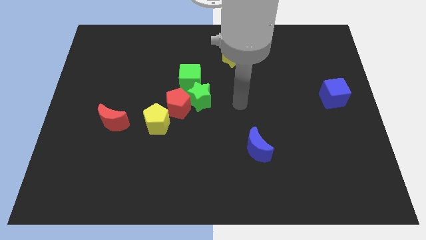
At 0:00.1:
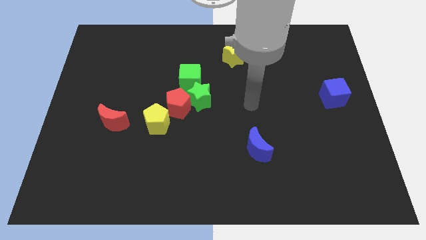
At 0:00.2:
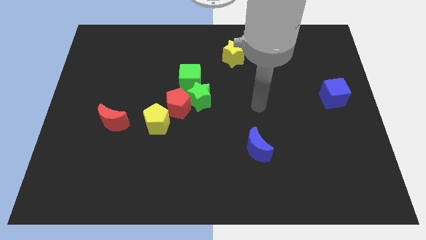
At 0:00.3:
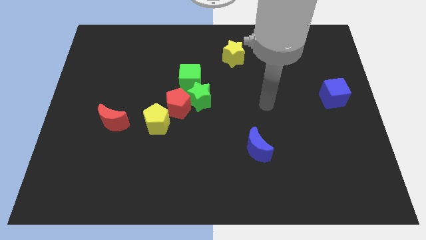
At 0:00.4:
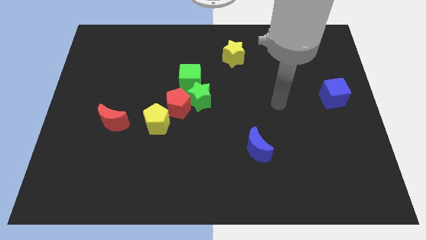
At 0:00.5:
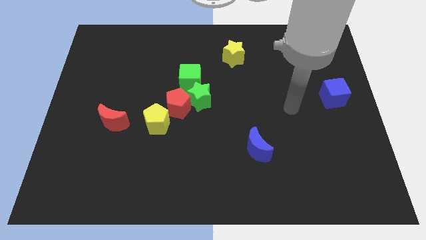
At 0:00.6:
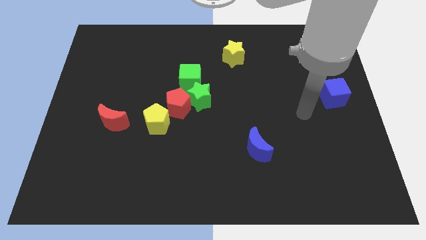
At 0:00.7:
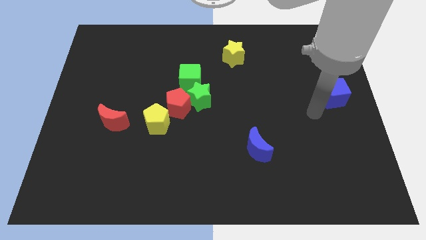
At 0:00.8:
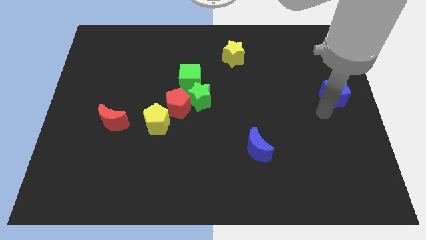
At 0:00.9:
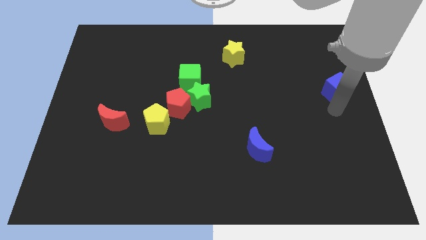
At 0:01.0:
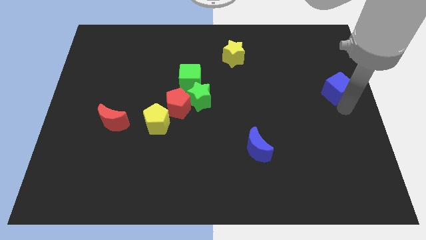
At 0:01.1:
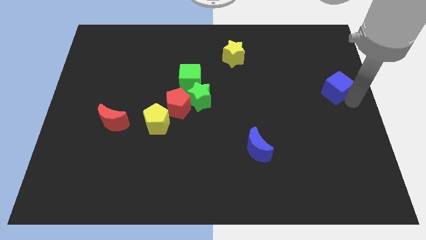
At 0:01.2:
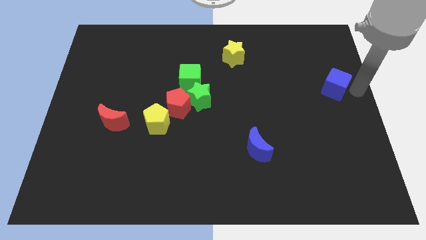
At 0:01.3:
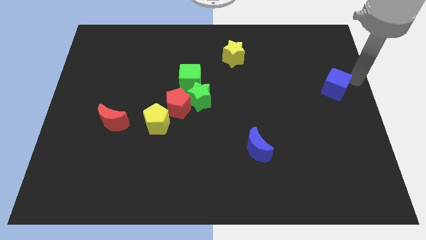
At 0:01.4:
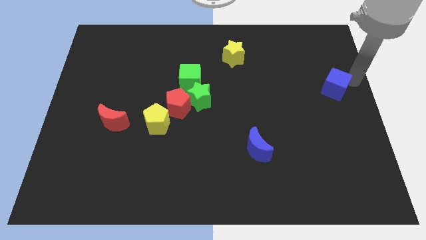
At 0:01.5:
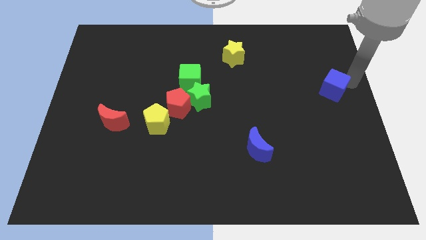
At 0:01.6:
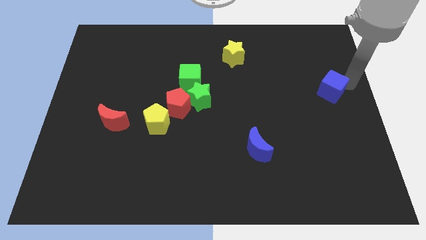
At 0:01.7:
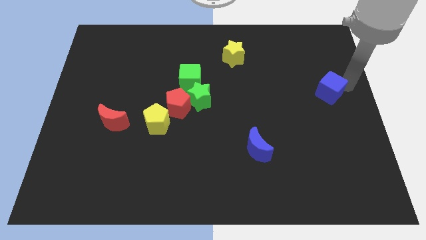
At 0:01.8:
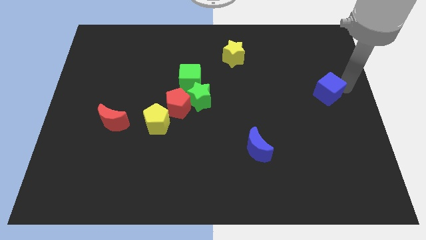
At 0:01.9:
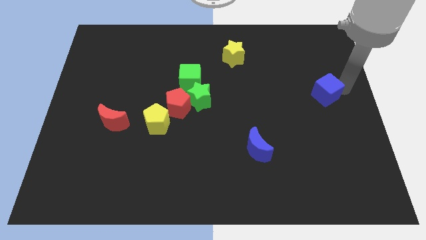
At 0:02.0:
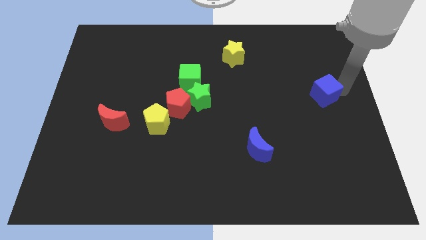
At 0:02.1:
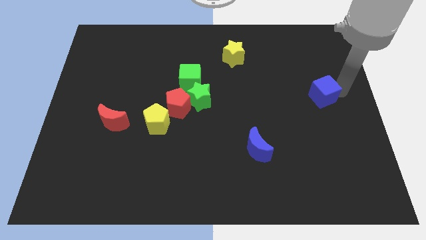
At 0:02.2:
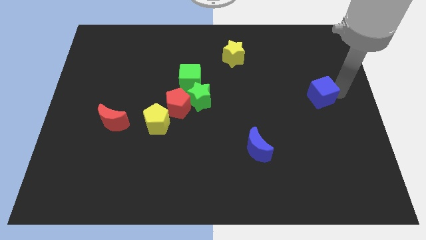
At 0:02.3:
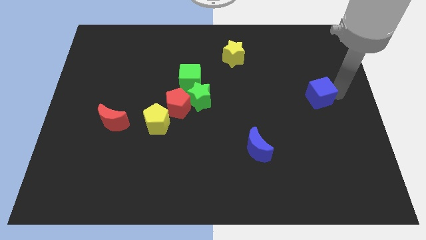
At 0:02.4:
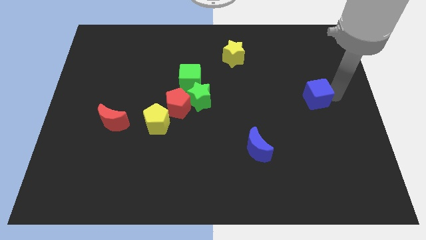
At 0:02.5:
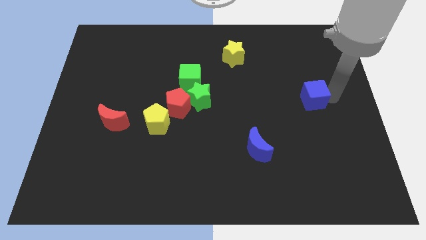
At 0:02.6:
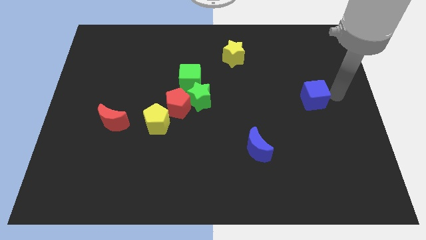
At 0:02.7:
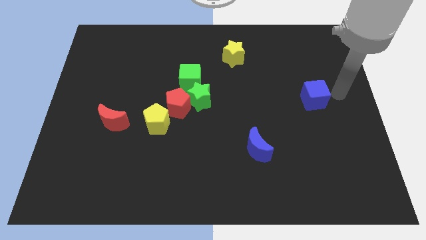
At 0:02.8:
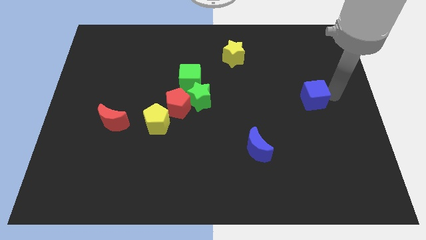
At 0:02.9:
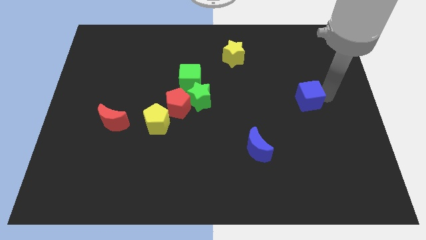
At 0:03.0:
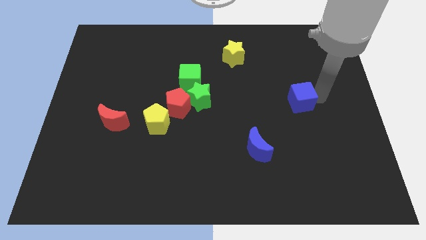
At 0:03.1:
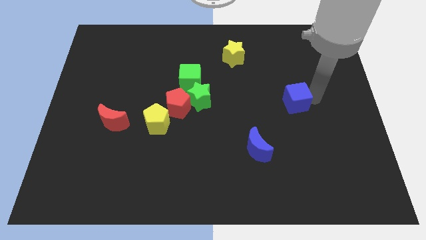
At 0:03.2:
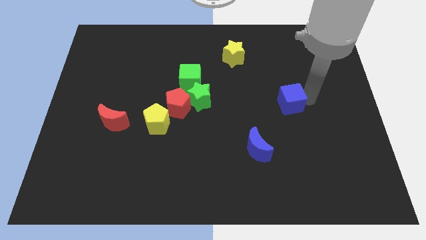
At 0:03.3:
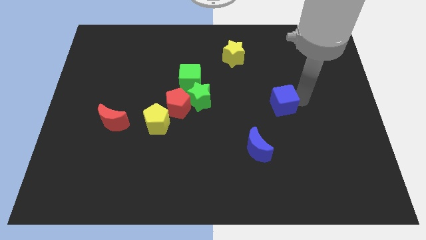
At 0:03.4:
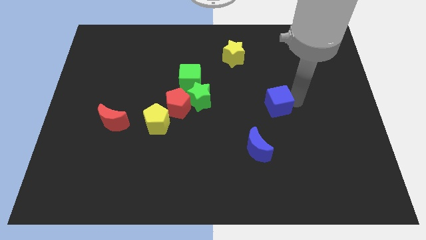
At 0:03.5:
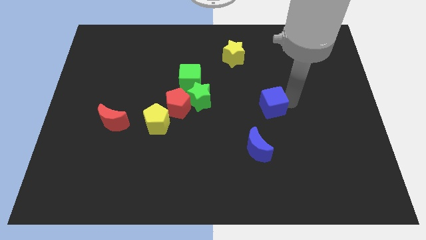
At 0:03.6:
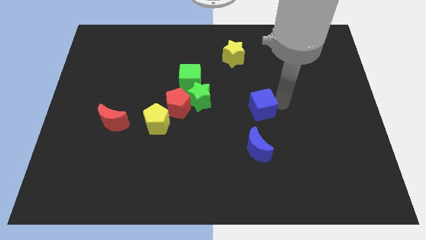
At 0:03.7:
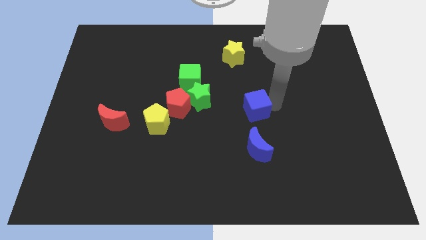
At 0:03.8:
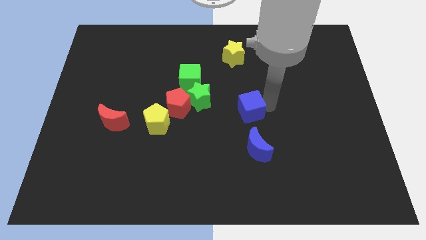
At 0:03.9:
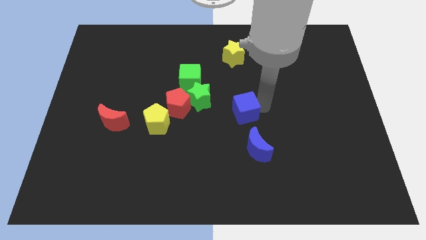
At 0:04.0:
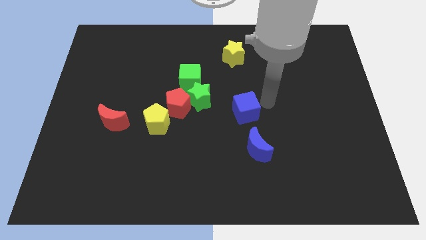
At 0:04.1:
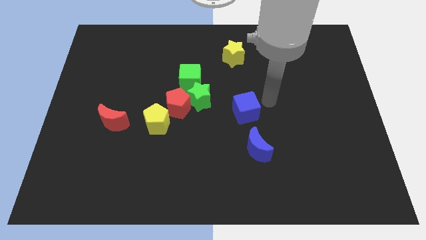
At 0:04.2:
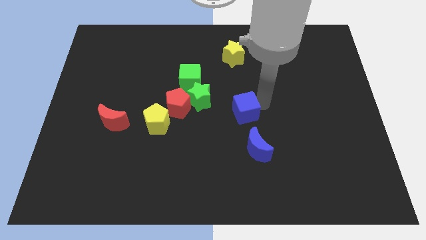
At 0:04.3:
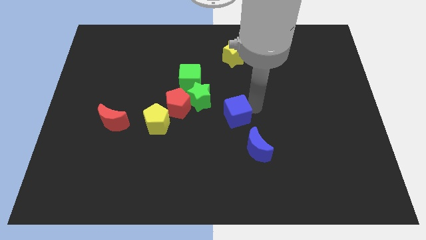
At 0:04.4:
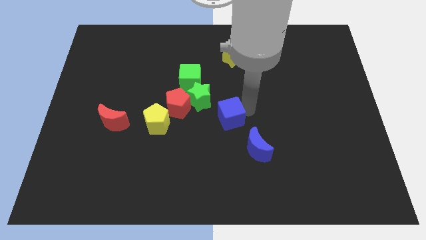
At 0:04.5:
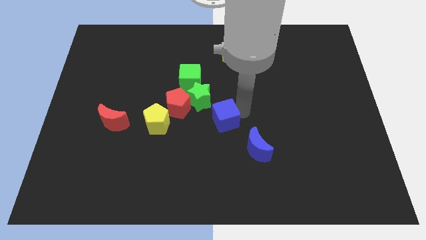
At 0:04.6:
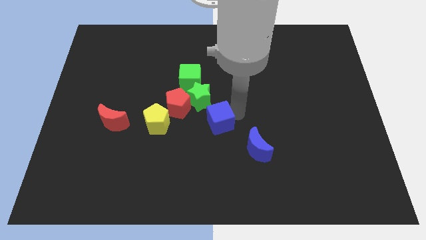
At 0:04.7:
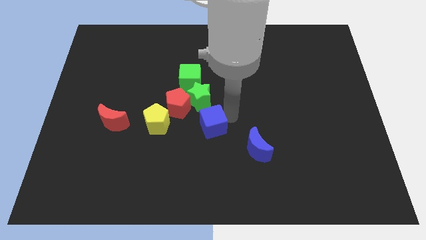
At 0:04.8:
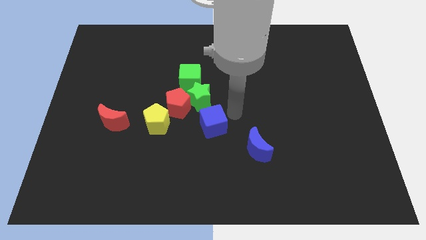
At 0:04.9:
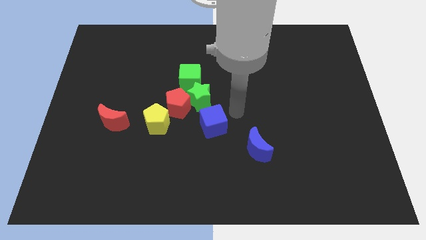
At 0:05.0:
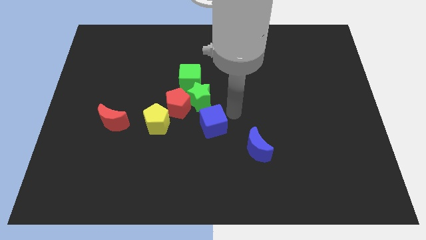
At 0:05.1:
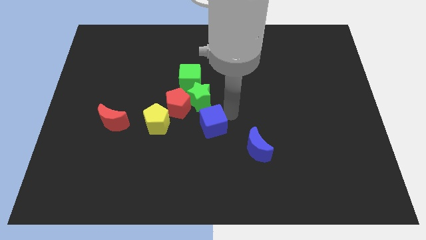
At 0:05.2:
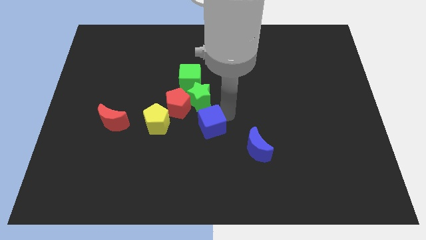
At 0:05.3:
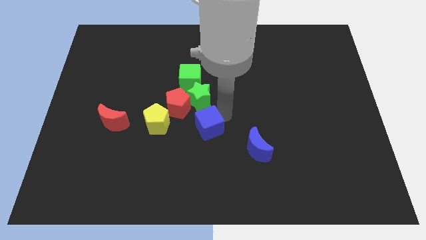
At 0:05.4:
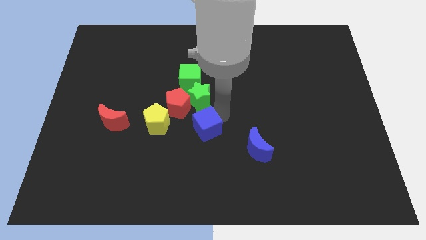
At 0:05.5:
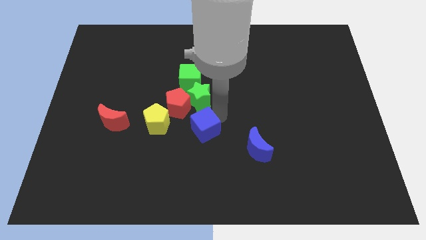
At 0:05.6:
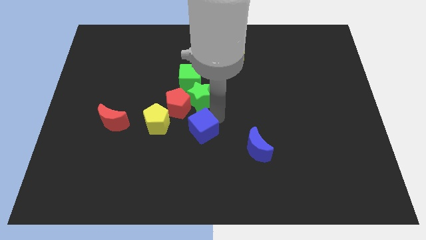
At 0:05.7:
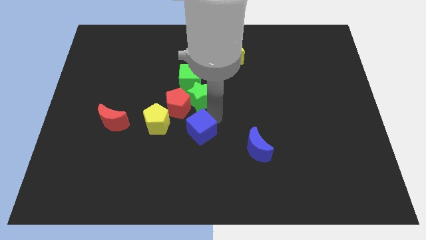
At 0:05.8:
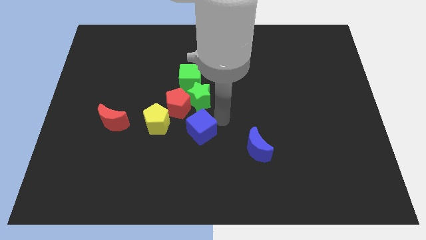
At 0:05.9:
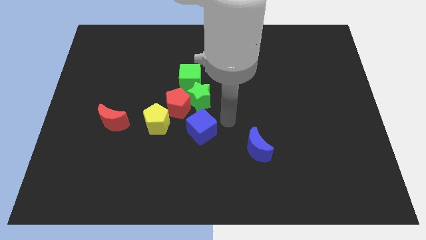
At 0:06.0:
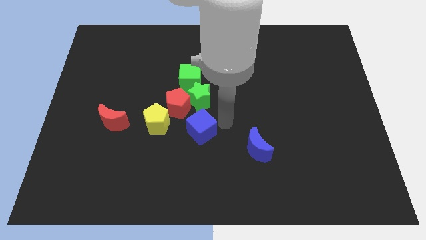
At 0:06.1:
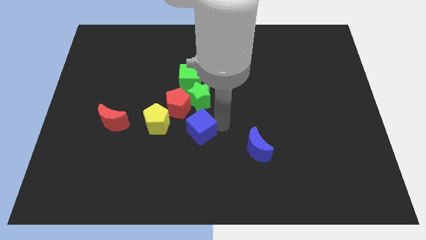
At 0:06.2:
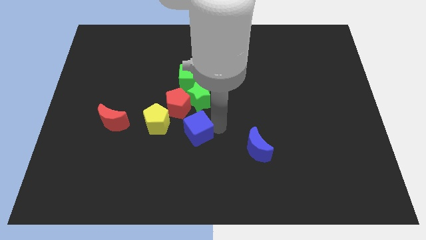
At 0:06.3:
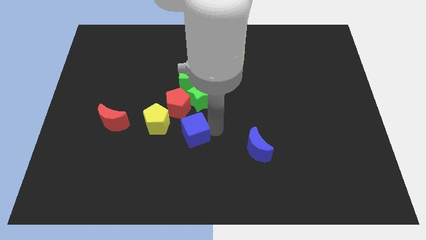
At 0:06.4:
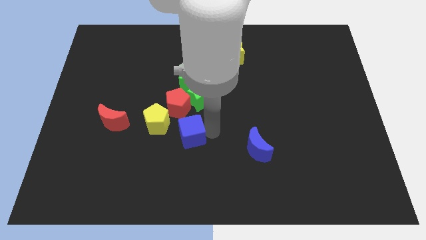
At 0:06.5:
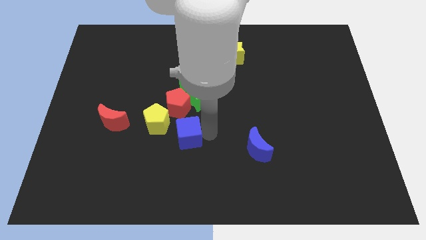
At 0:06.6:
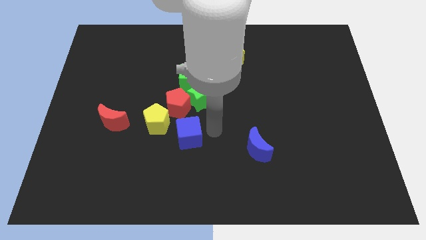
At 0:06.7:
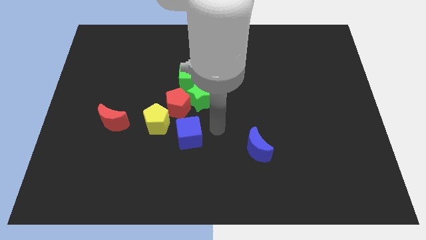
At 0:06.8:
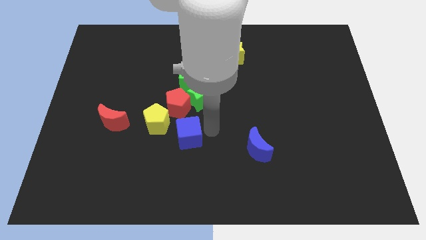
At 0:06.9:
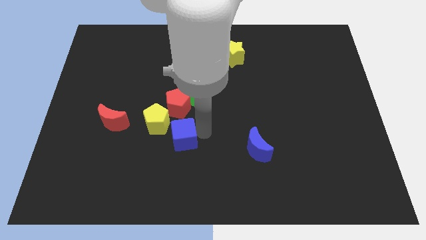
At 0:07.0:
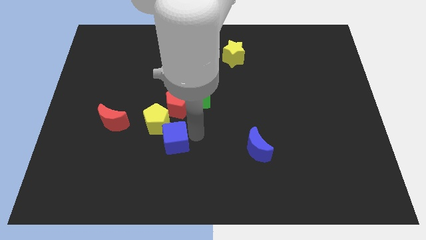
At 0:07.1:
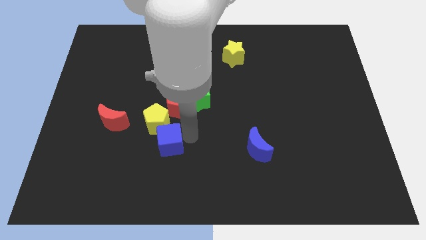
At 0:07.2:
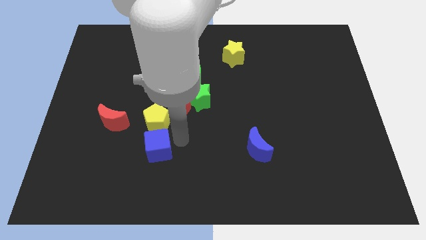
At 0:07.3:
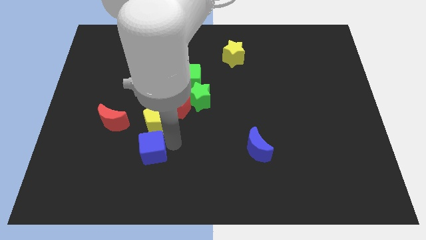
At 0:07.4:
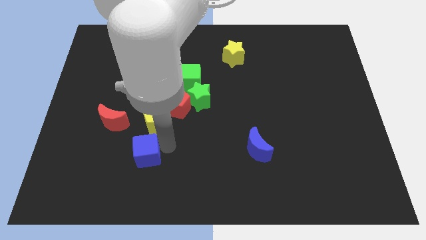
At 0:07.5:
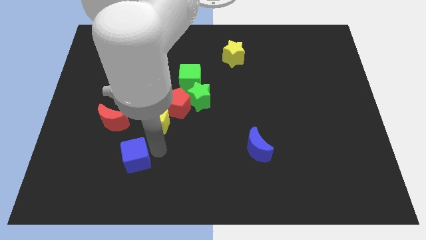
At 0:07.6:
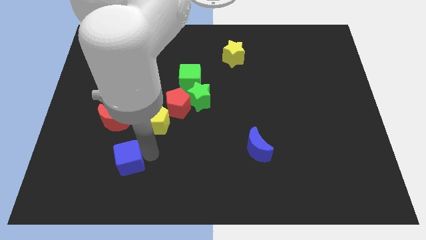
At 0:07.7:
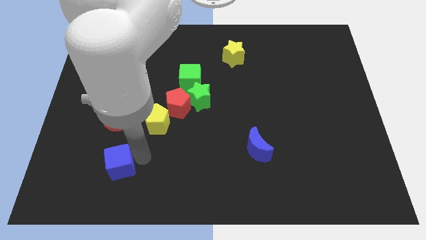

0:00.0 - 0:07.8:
move the blue cube below the red moon
